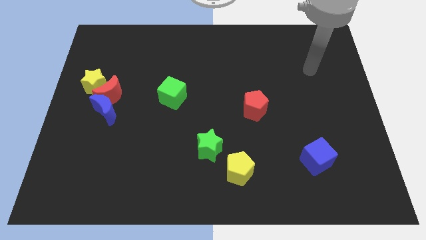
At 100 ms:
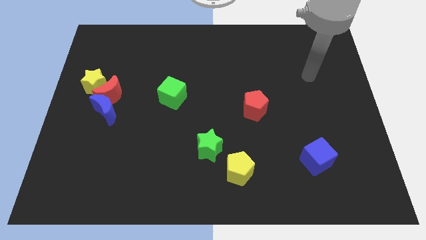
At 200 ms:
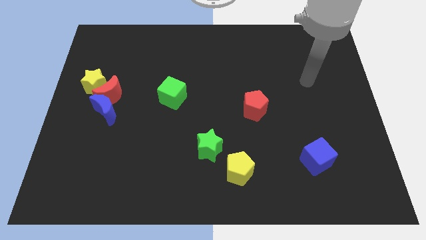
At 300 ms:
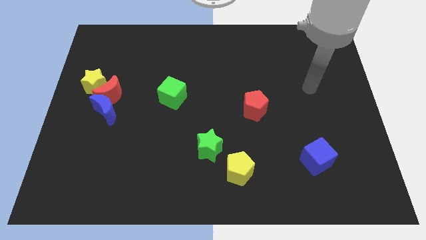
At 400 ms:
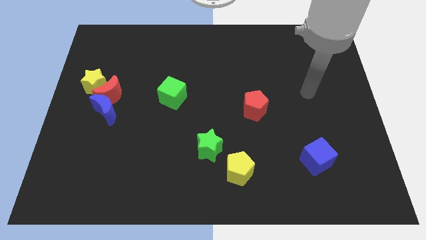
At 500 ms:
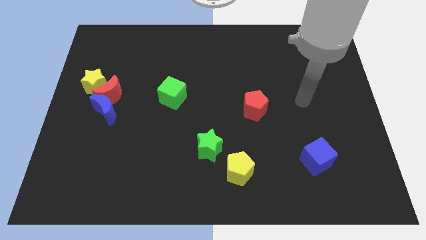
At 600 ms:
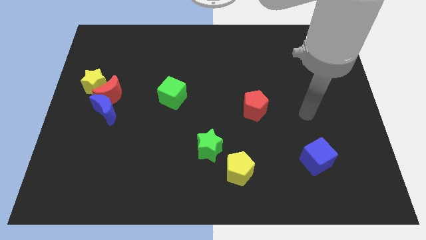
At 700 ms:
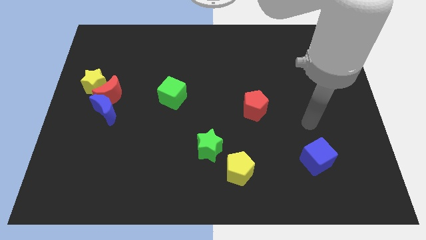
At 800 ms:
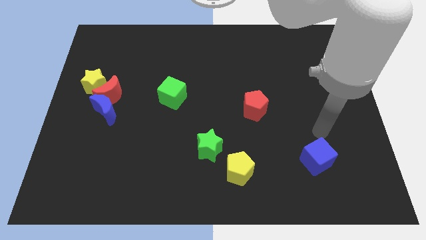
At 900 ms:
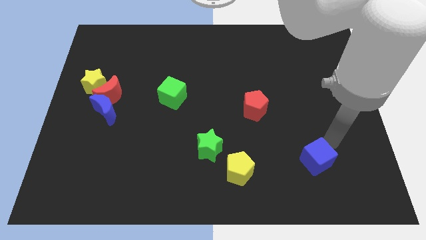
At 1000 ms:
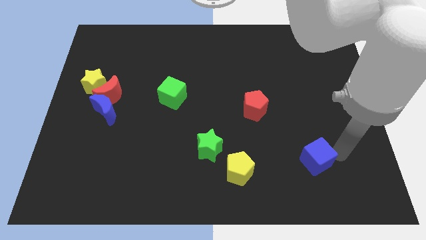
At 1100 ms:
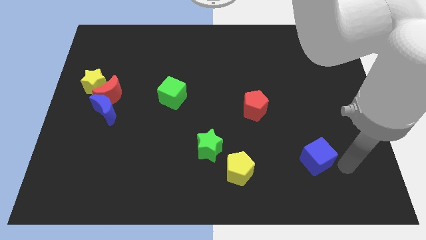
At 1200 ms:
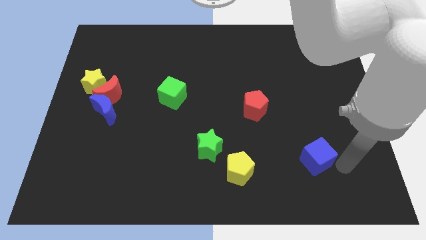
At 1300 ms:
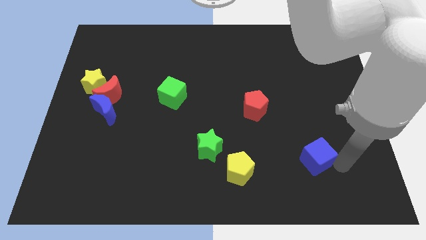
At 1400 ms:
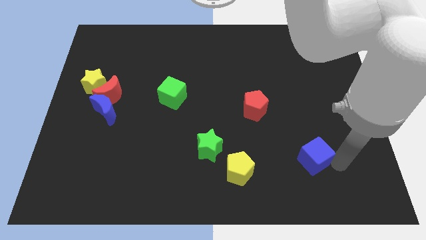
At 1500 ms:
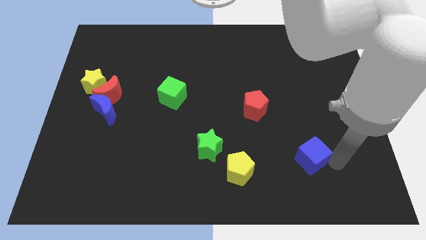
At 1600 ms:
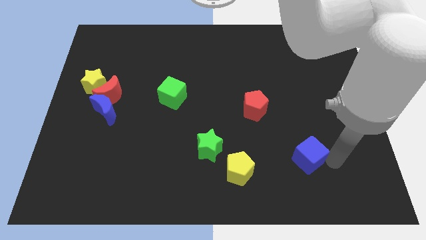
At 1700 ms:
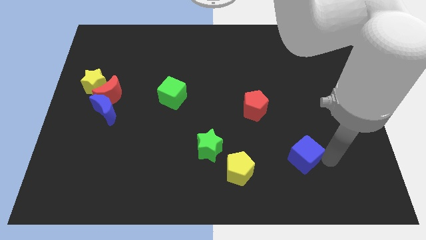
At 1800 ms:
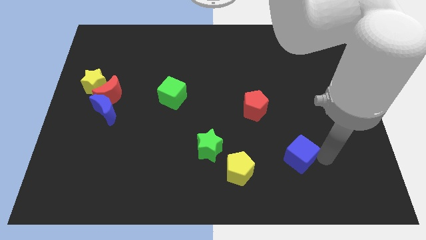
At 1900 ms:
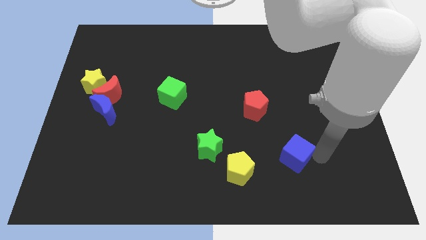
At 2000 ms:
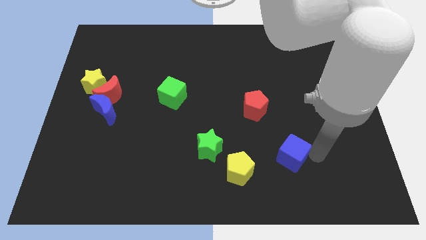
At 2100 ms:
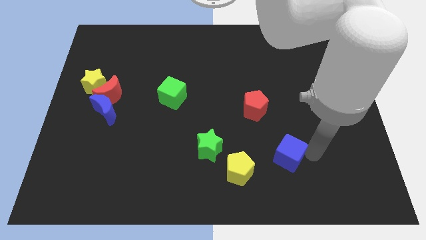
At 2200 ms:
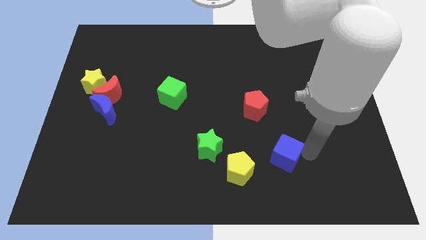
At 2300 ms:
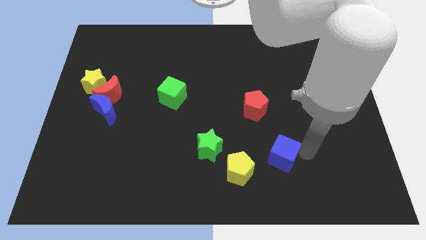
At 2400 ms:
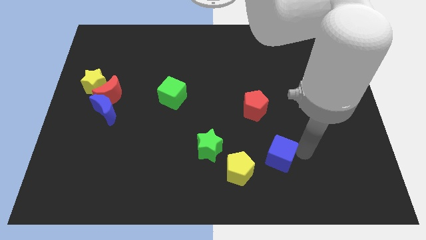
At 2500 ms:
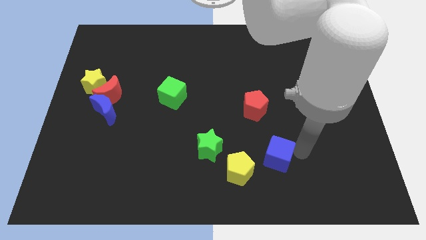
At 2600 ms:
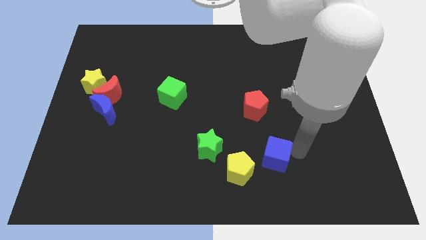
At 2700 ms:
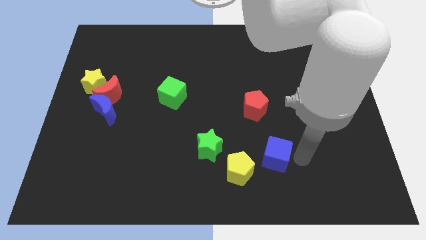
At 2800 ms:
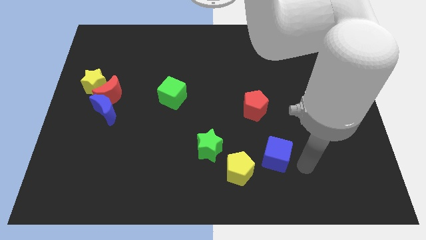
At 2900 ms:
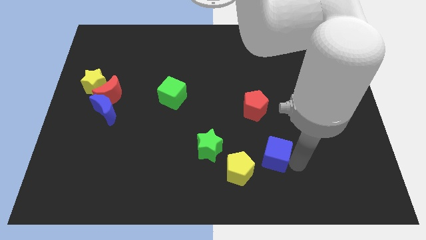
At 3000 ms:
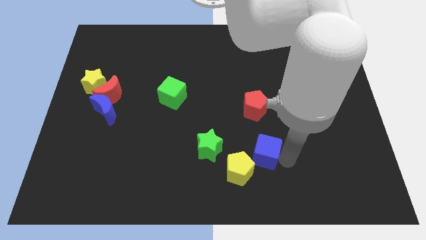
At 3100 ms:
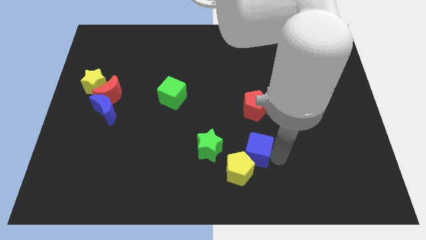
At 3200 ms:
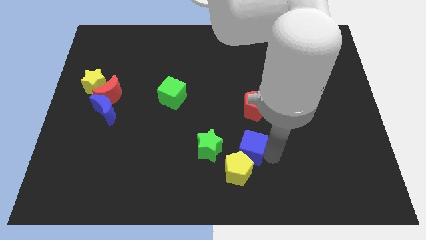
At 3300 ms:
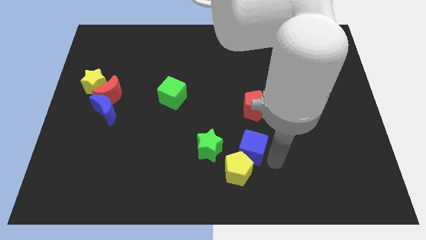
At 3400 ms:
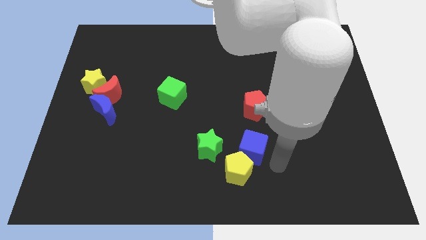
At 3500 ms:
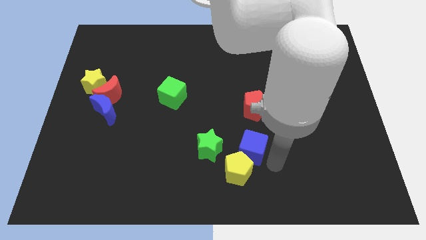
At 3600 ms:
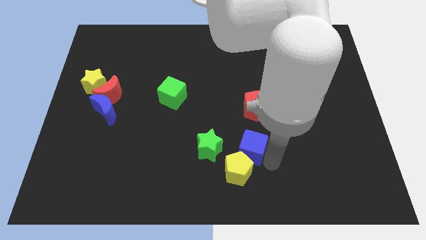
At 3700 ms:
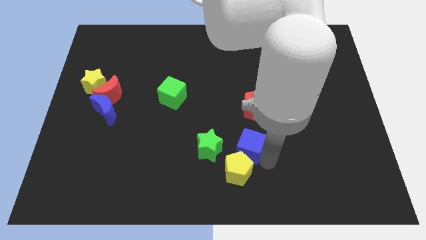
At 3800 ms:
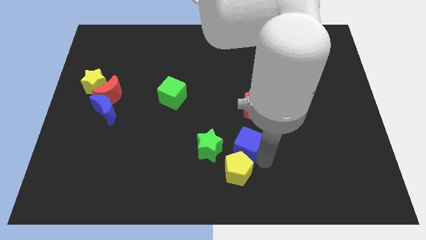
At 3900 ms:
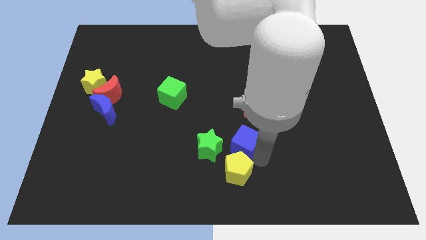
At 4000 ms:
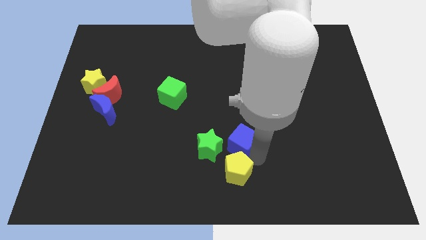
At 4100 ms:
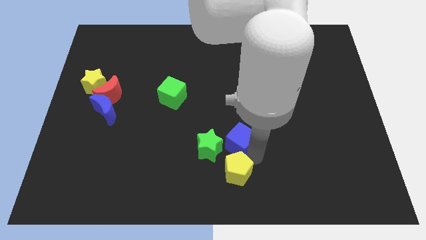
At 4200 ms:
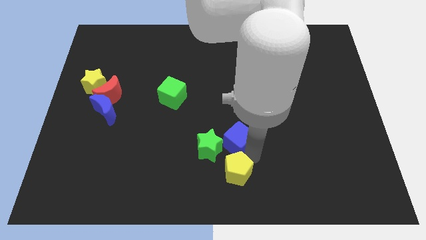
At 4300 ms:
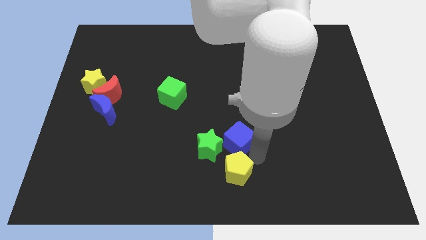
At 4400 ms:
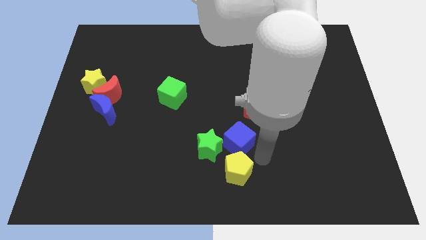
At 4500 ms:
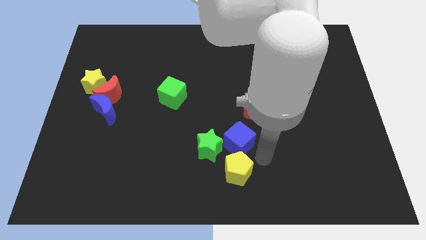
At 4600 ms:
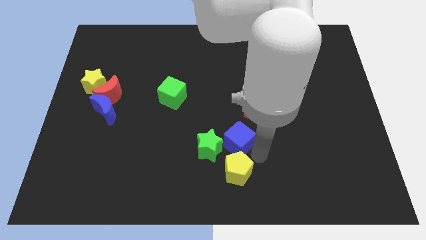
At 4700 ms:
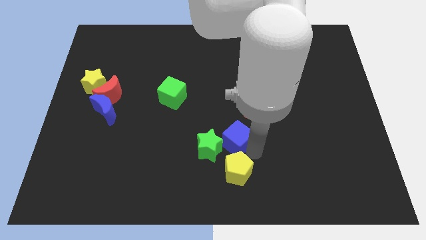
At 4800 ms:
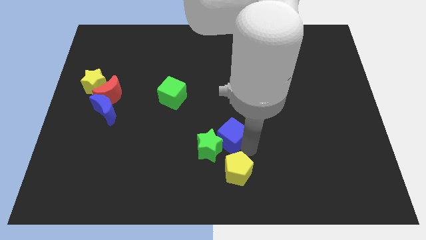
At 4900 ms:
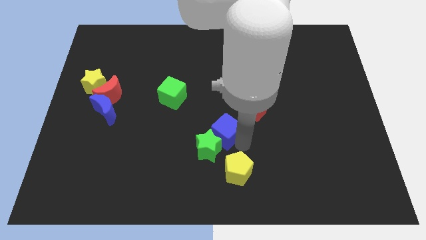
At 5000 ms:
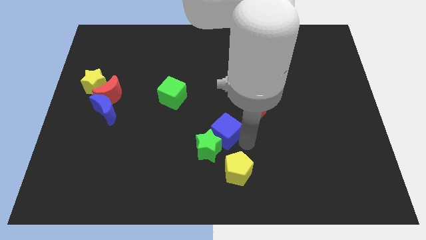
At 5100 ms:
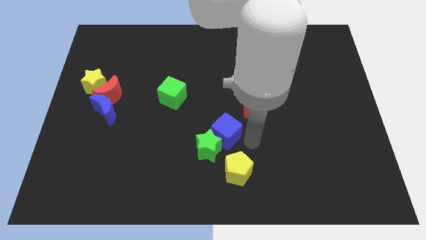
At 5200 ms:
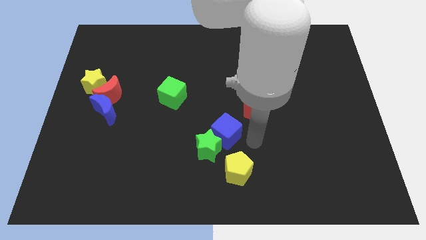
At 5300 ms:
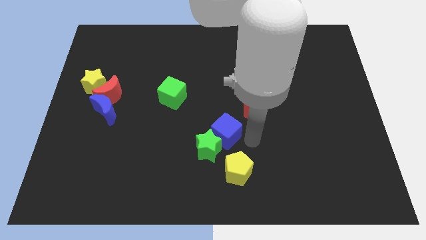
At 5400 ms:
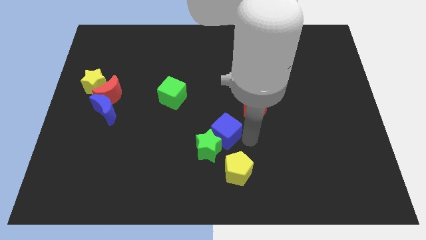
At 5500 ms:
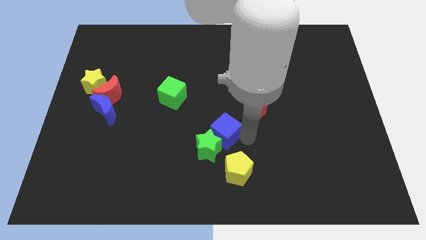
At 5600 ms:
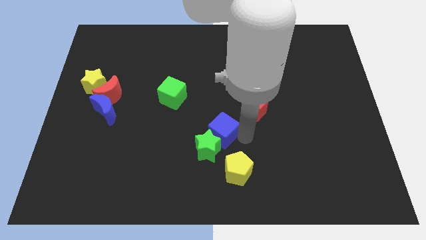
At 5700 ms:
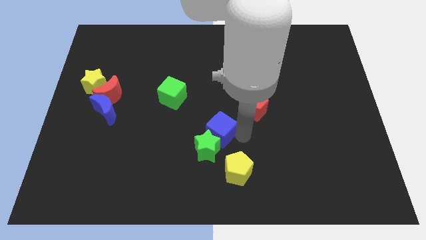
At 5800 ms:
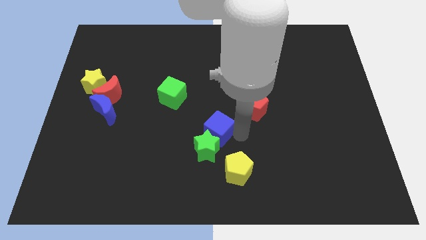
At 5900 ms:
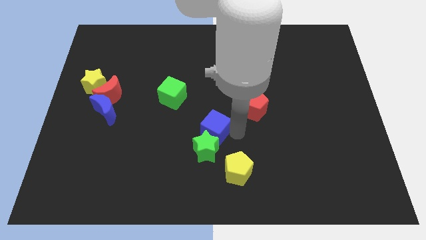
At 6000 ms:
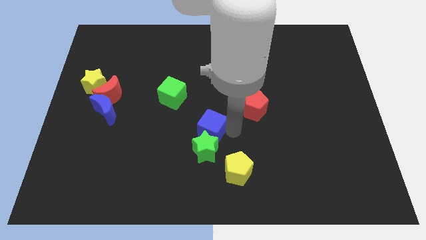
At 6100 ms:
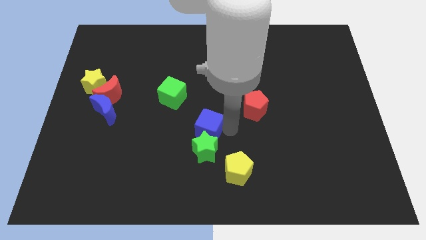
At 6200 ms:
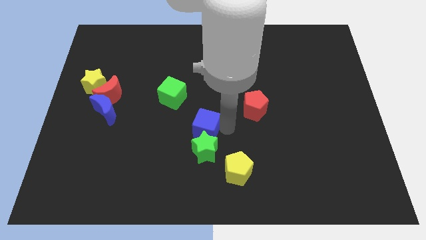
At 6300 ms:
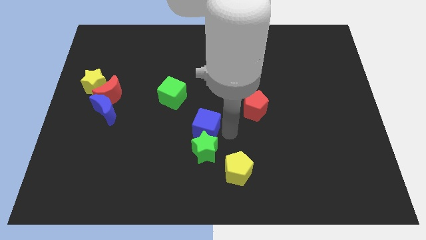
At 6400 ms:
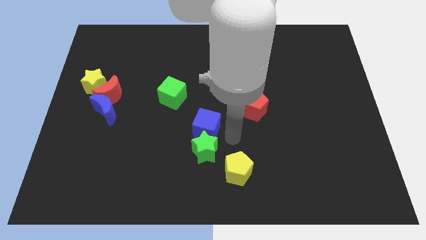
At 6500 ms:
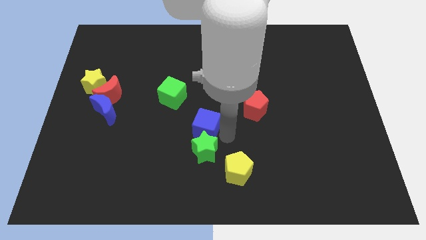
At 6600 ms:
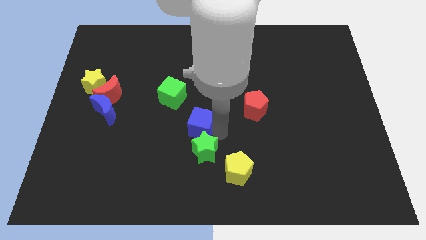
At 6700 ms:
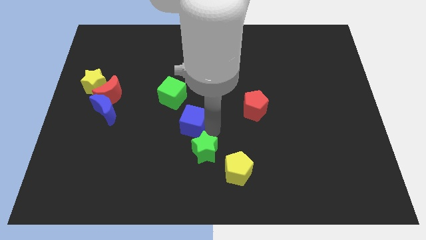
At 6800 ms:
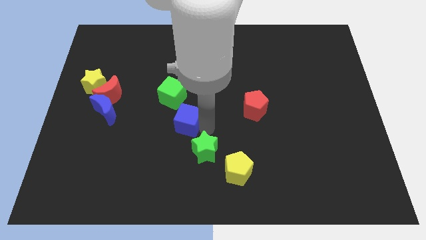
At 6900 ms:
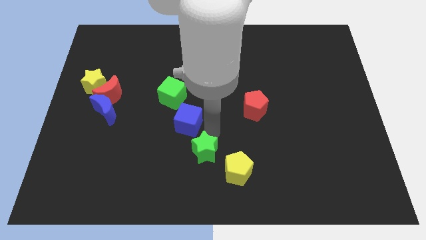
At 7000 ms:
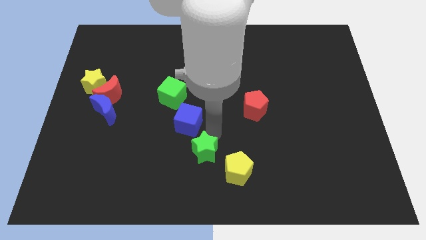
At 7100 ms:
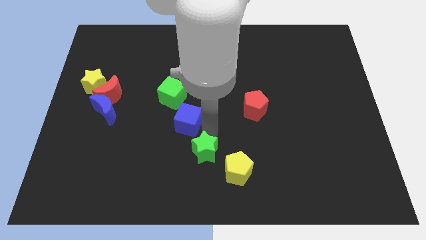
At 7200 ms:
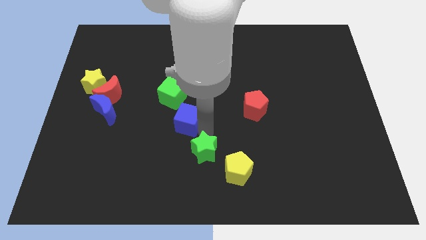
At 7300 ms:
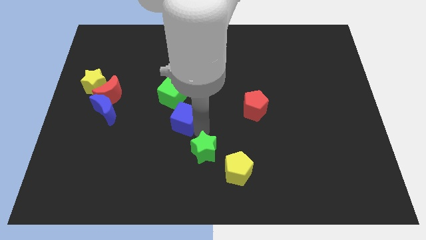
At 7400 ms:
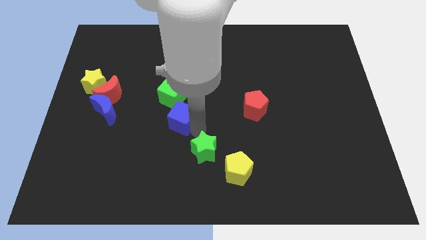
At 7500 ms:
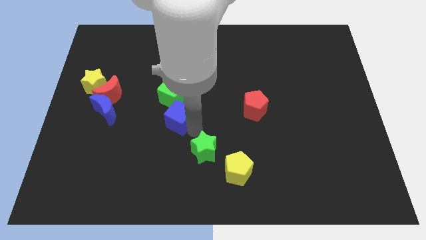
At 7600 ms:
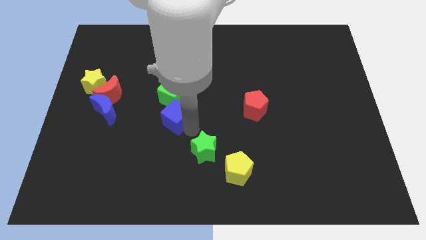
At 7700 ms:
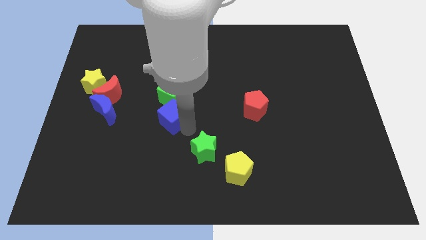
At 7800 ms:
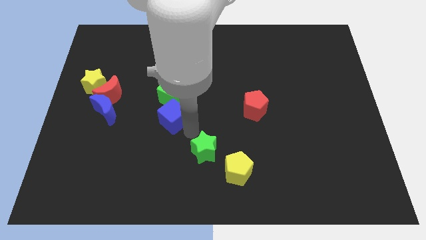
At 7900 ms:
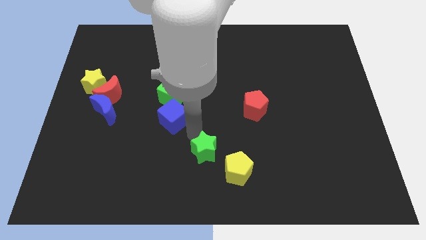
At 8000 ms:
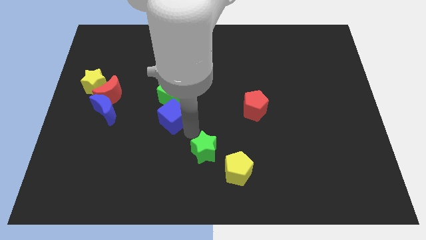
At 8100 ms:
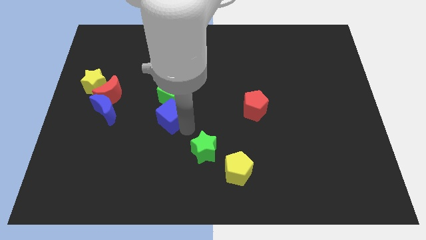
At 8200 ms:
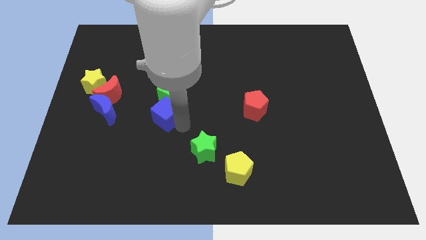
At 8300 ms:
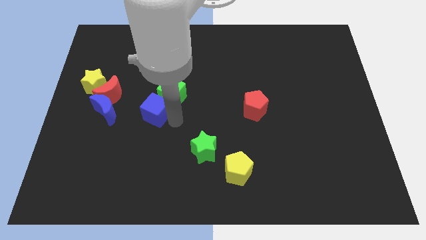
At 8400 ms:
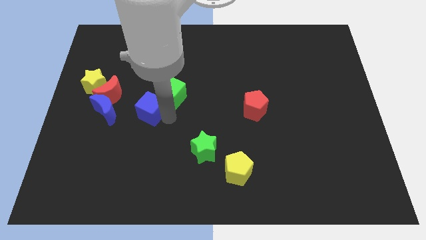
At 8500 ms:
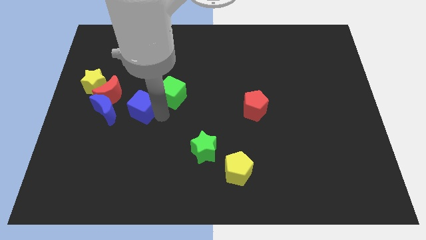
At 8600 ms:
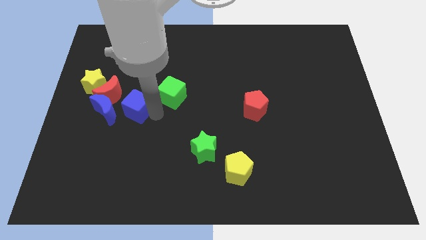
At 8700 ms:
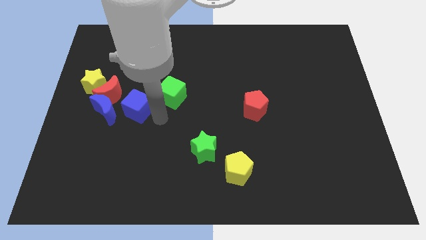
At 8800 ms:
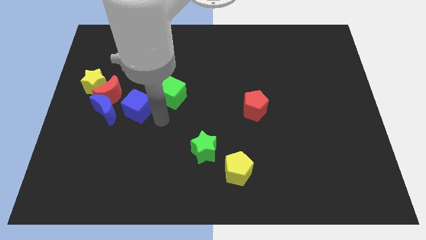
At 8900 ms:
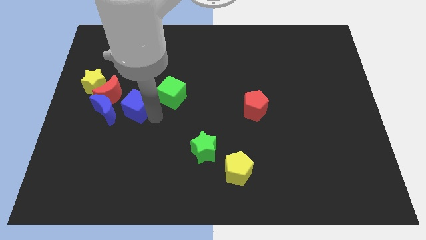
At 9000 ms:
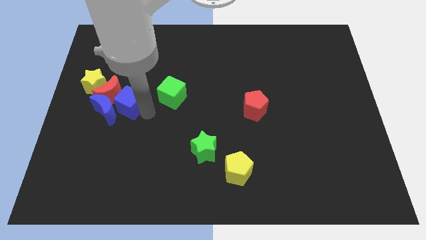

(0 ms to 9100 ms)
put the blue cube towards the red moon
